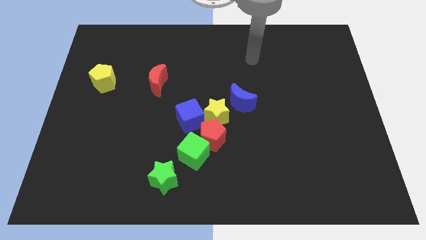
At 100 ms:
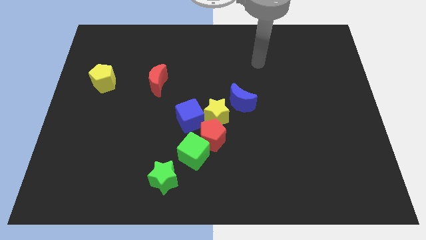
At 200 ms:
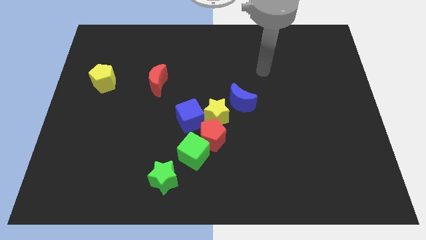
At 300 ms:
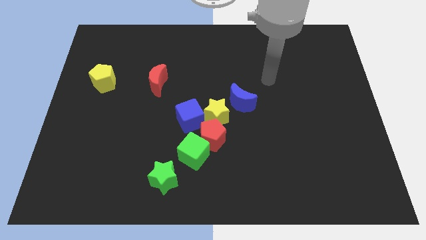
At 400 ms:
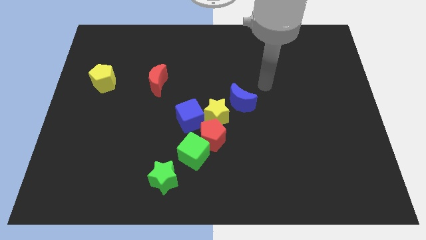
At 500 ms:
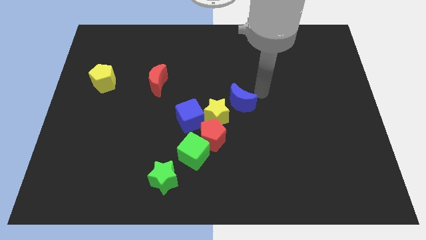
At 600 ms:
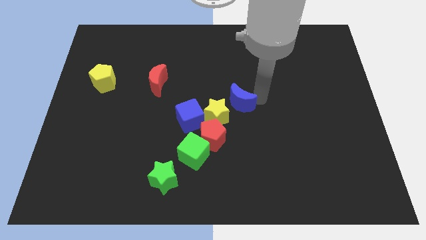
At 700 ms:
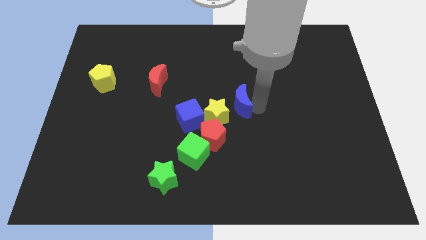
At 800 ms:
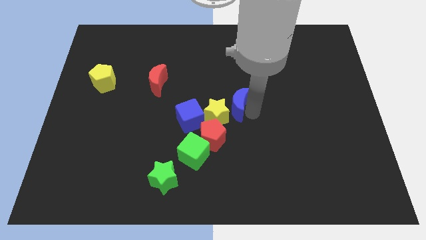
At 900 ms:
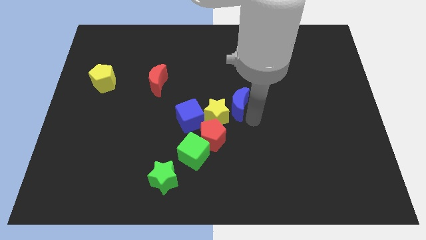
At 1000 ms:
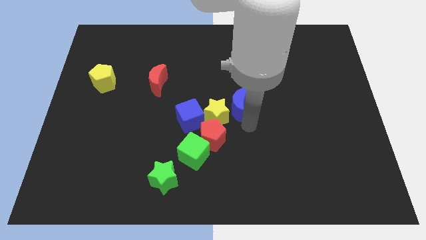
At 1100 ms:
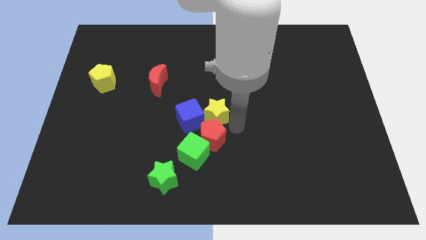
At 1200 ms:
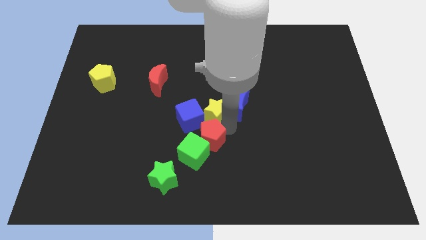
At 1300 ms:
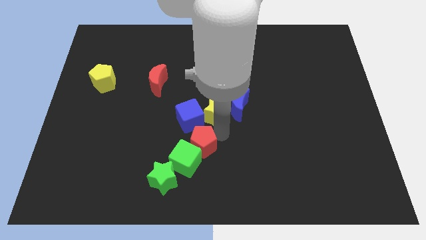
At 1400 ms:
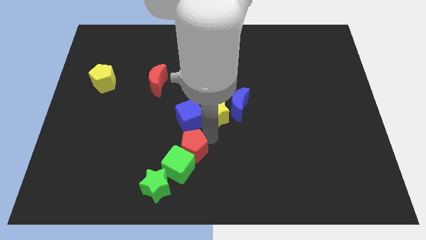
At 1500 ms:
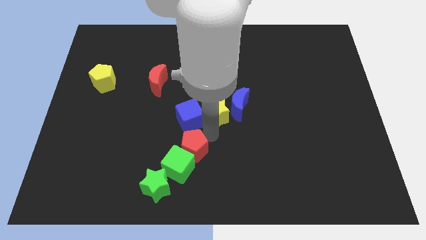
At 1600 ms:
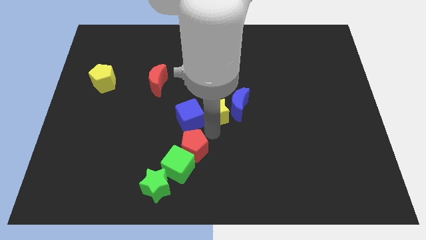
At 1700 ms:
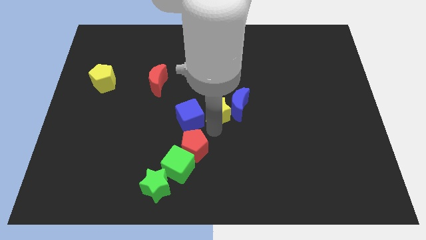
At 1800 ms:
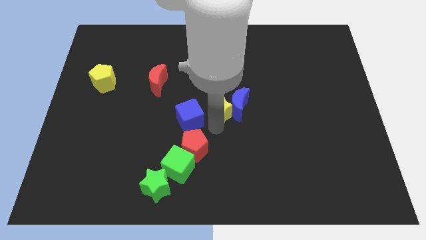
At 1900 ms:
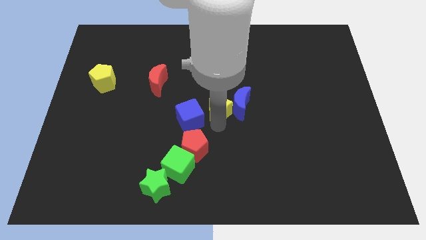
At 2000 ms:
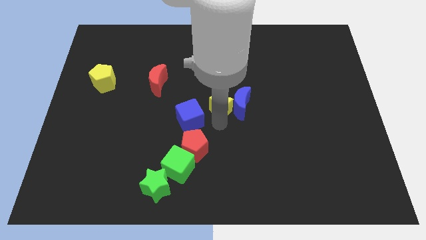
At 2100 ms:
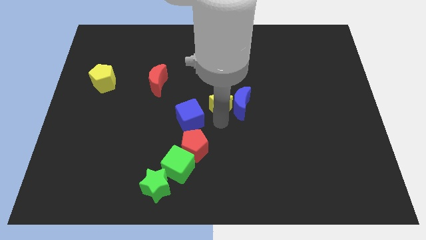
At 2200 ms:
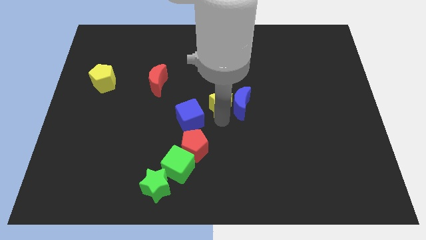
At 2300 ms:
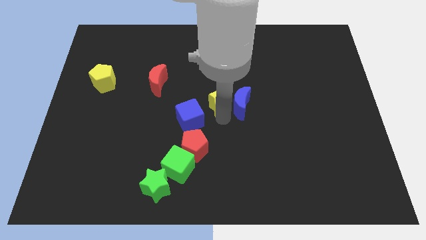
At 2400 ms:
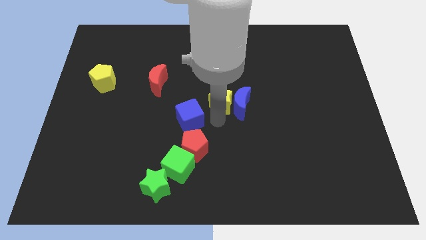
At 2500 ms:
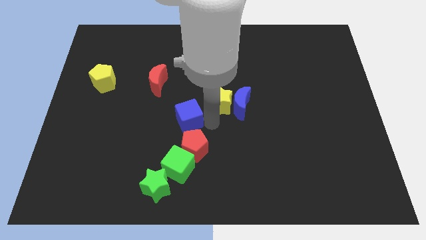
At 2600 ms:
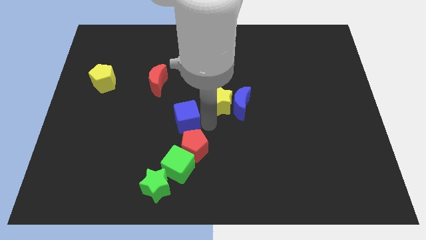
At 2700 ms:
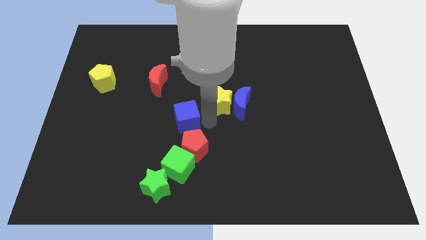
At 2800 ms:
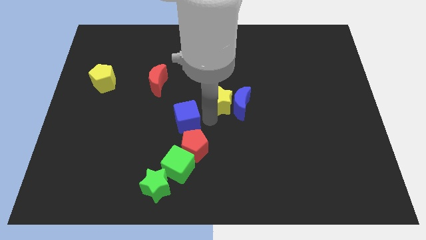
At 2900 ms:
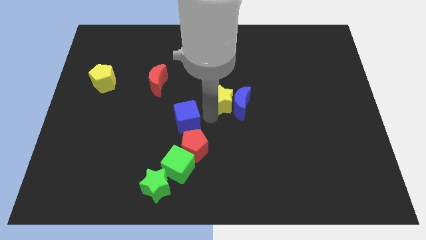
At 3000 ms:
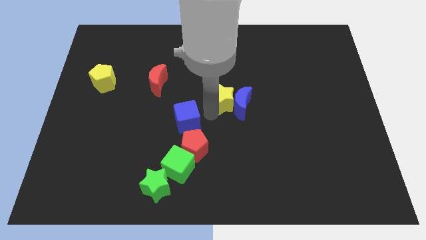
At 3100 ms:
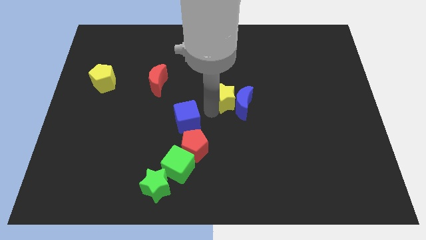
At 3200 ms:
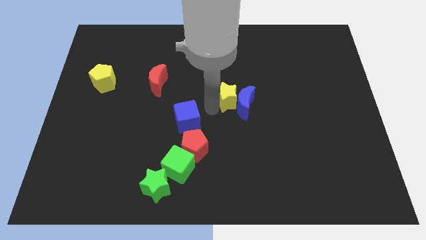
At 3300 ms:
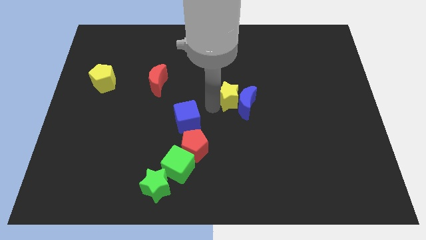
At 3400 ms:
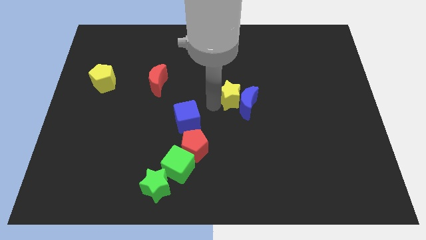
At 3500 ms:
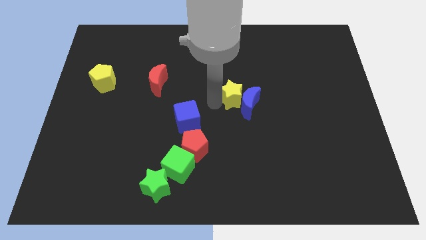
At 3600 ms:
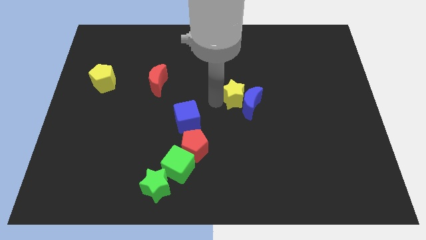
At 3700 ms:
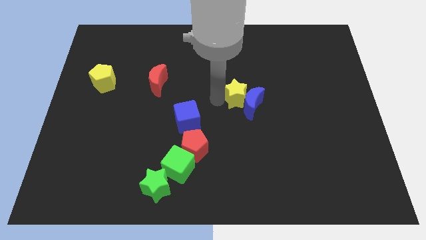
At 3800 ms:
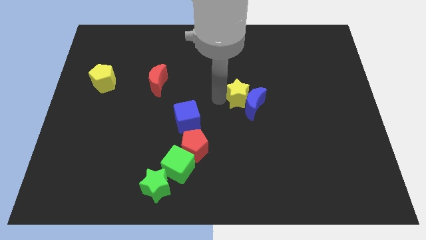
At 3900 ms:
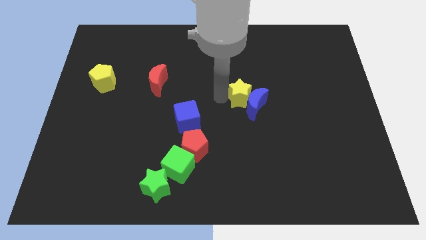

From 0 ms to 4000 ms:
move the yellow star away from the group

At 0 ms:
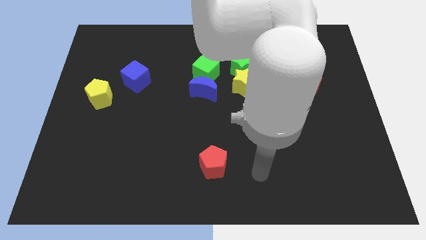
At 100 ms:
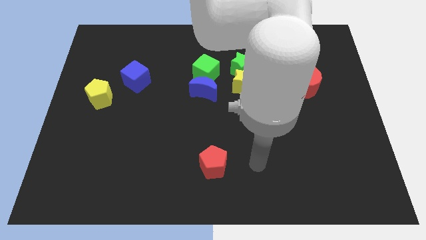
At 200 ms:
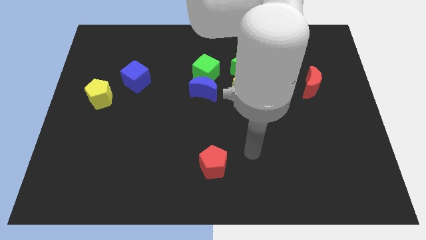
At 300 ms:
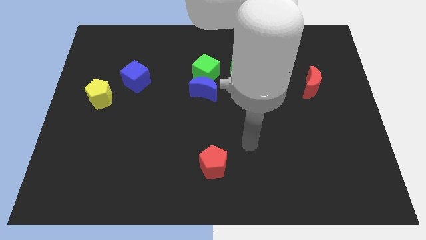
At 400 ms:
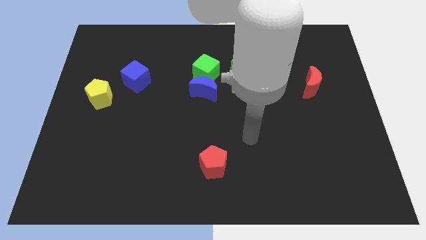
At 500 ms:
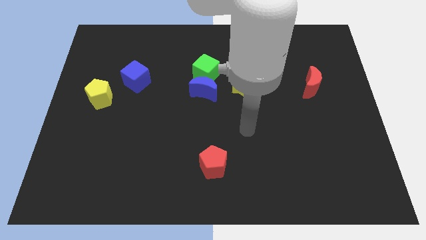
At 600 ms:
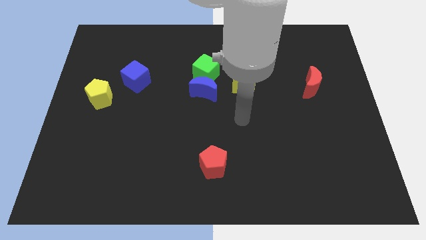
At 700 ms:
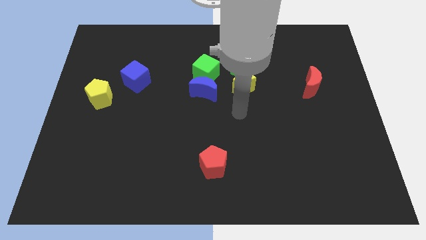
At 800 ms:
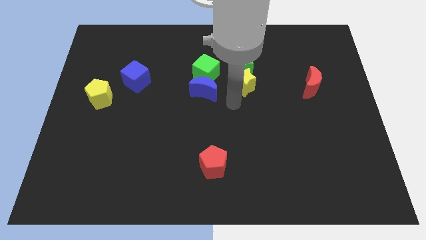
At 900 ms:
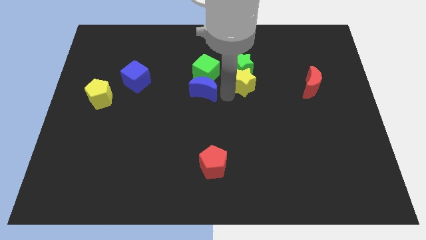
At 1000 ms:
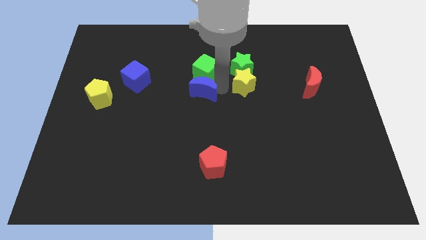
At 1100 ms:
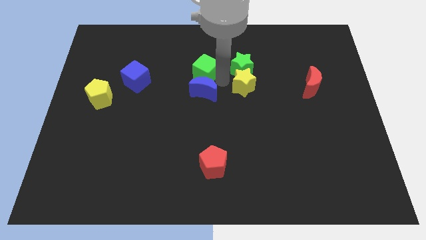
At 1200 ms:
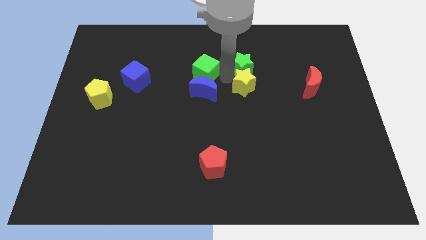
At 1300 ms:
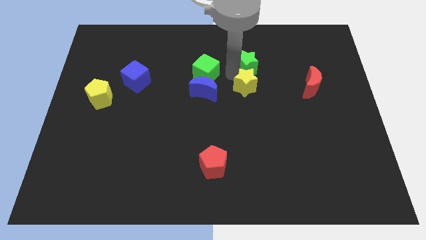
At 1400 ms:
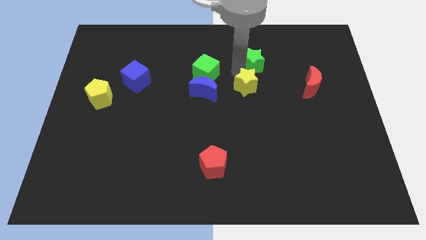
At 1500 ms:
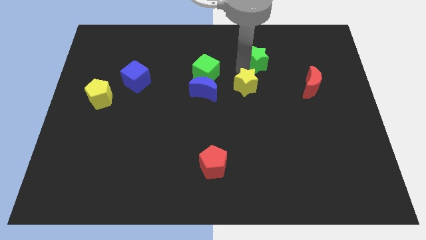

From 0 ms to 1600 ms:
pull the green star apart from the yellow star and green cube

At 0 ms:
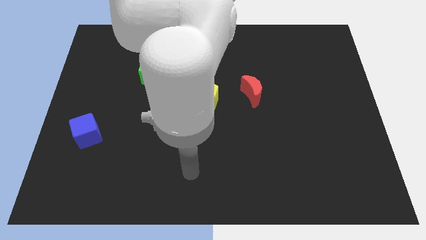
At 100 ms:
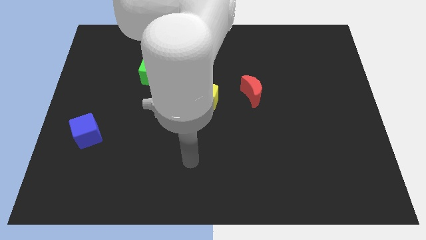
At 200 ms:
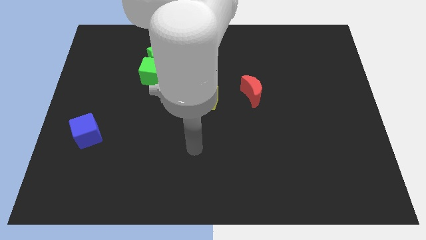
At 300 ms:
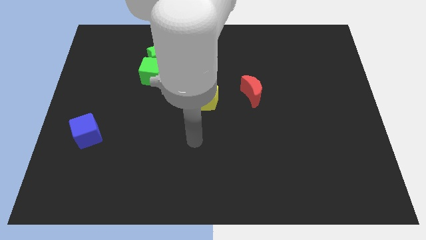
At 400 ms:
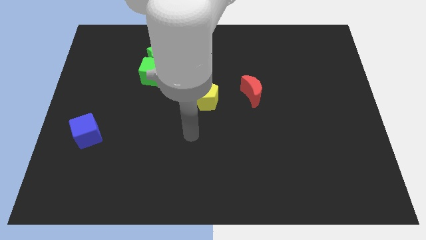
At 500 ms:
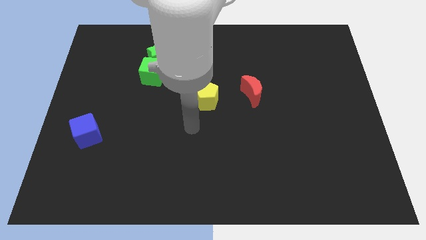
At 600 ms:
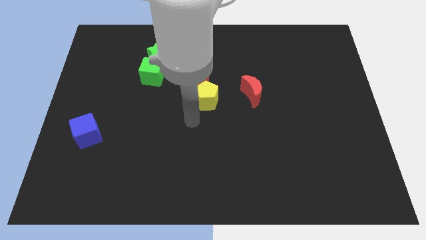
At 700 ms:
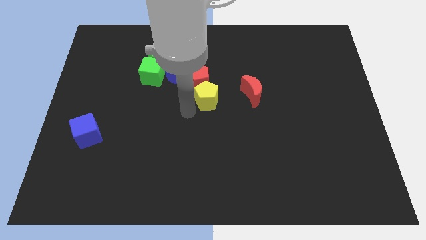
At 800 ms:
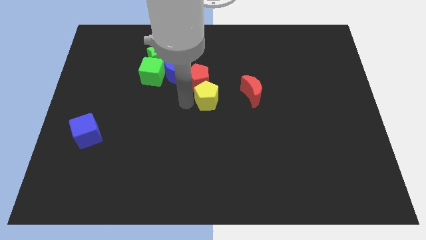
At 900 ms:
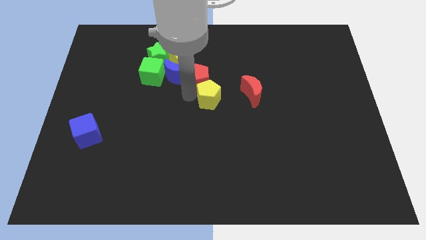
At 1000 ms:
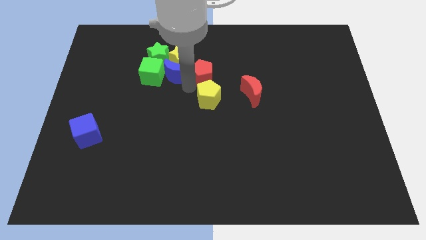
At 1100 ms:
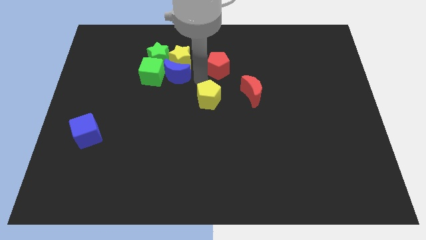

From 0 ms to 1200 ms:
separate the yellow pentagon from the red pentagon

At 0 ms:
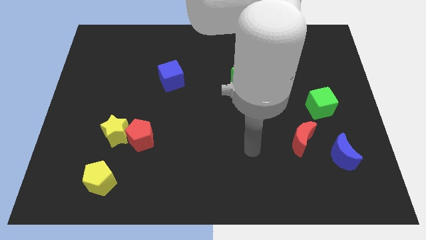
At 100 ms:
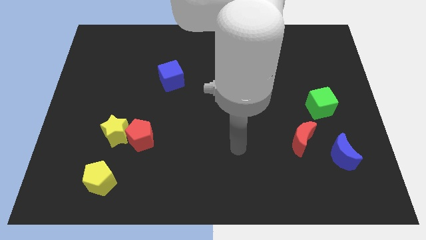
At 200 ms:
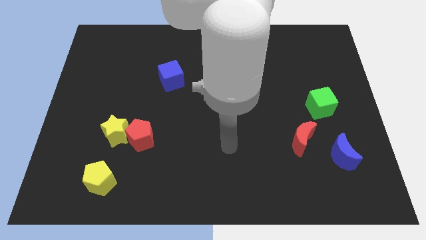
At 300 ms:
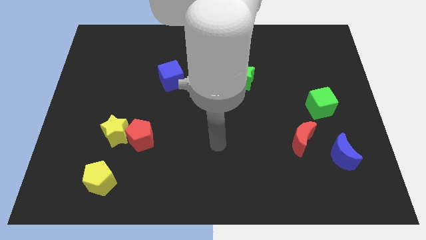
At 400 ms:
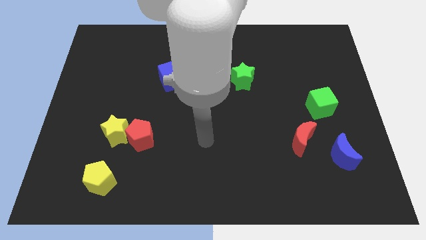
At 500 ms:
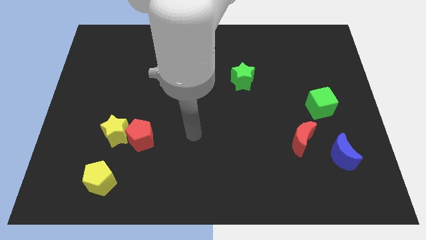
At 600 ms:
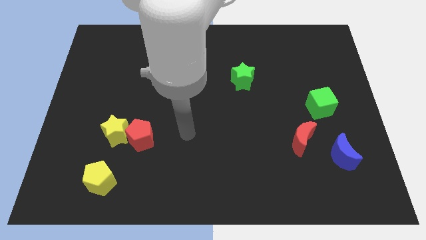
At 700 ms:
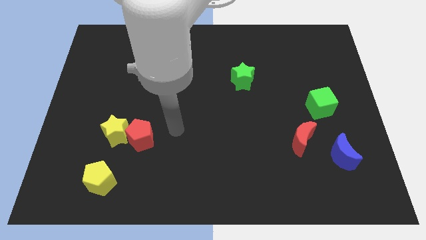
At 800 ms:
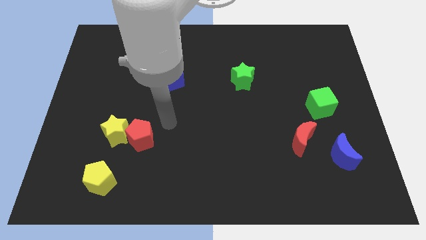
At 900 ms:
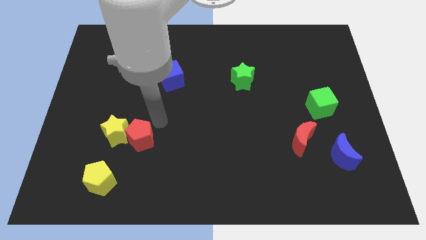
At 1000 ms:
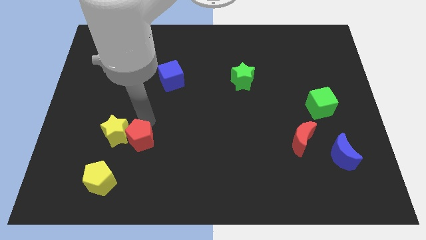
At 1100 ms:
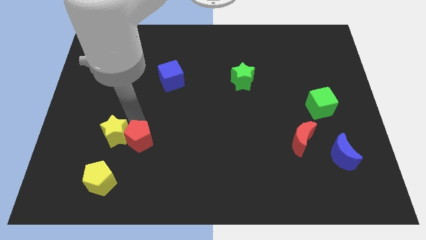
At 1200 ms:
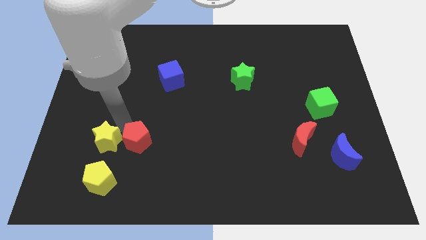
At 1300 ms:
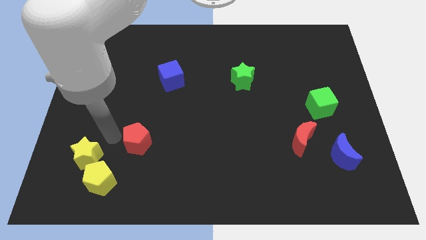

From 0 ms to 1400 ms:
separate the red pentagon from the yellow star

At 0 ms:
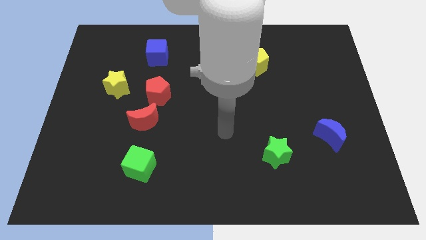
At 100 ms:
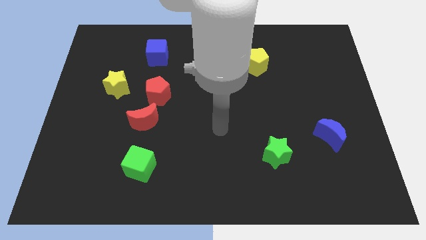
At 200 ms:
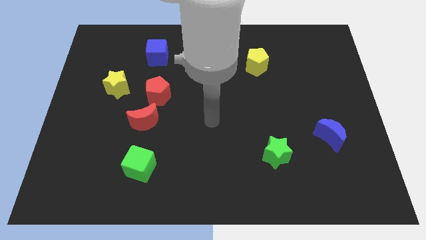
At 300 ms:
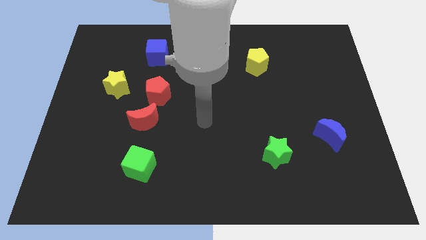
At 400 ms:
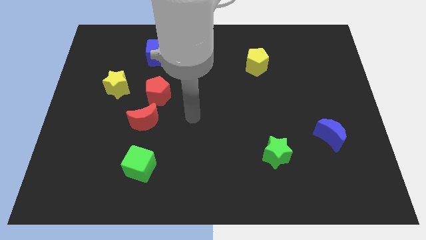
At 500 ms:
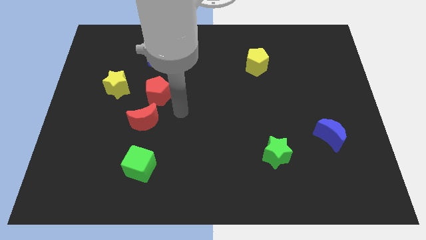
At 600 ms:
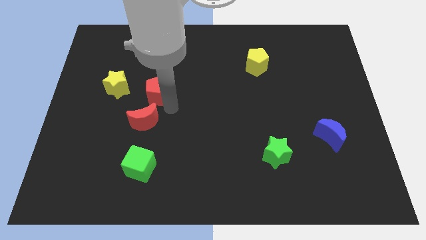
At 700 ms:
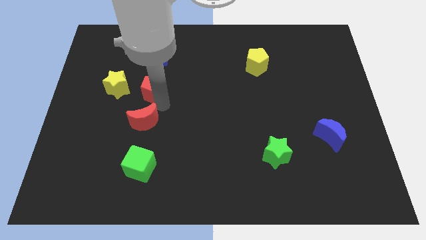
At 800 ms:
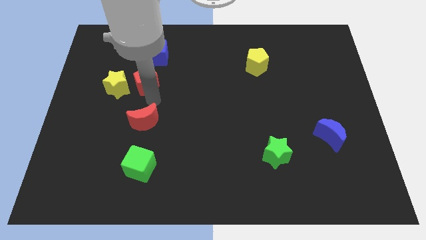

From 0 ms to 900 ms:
pull the red moon apart from the red pentagon
